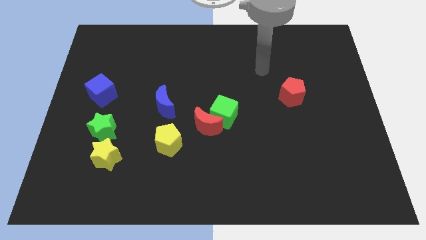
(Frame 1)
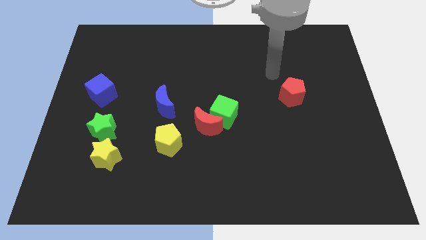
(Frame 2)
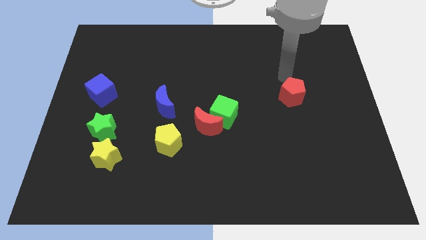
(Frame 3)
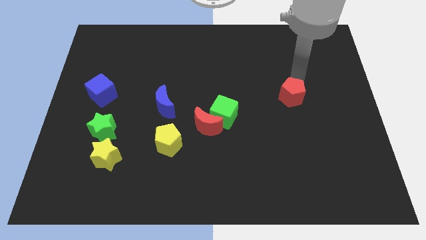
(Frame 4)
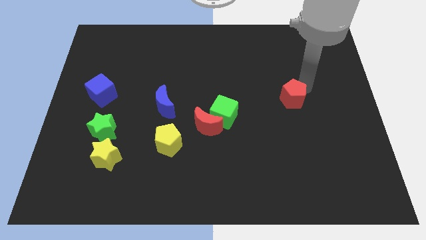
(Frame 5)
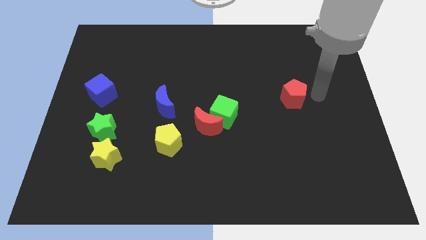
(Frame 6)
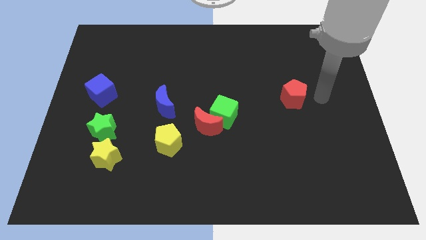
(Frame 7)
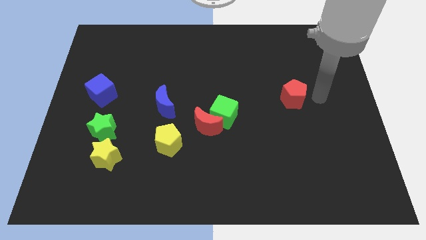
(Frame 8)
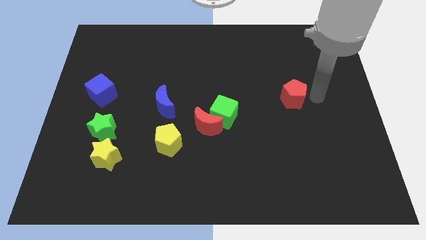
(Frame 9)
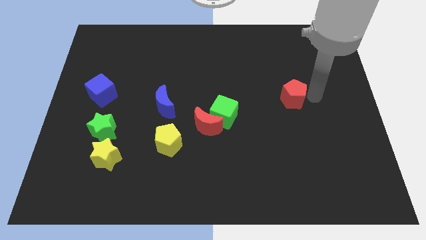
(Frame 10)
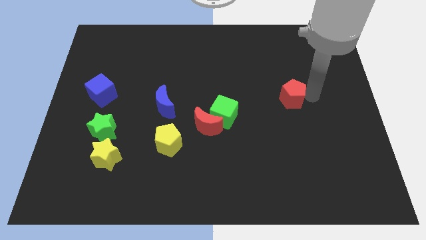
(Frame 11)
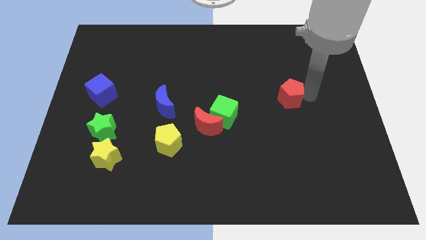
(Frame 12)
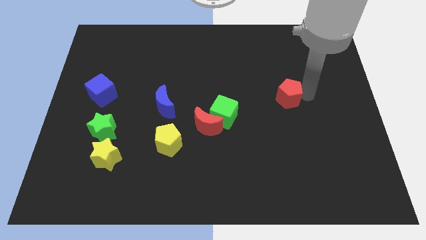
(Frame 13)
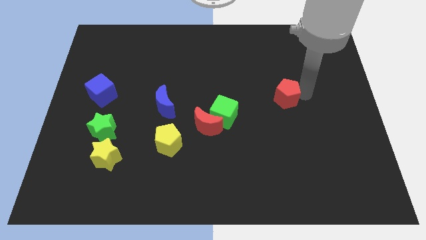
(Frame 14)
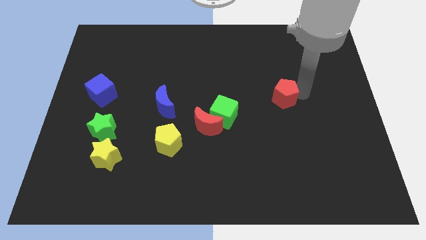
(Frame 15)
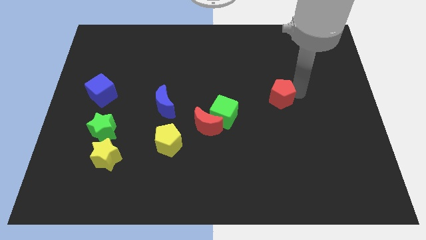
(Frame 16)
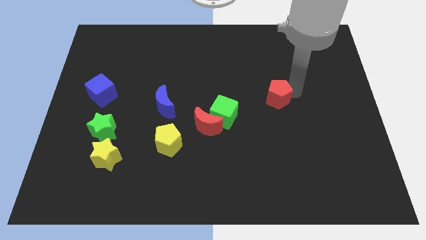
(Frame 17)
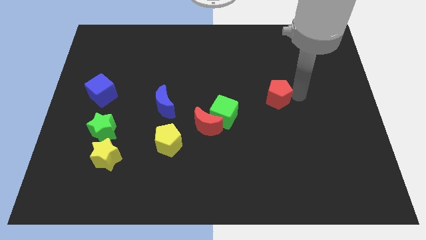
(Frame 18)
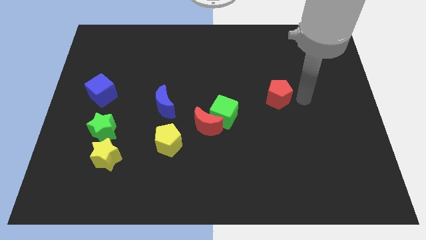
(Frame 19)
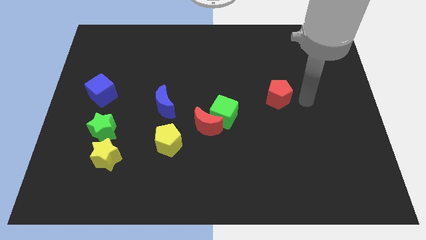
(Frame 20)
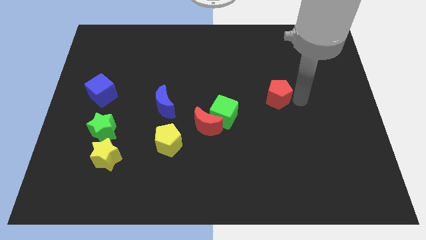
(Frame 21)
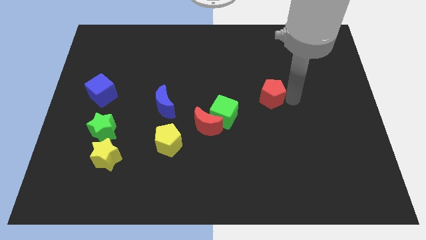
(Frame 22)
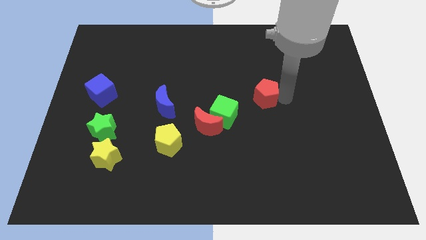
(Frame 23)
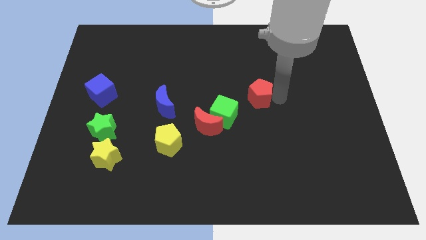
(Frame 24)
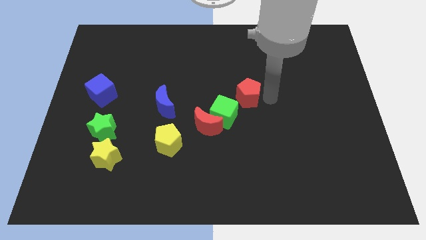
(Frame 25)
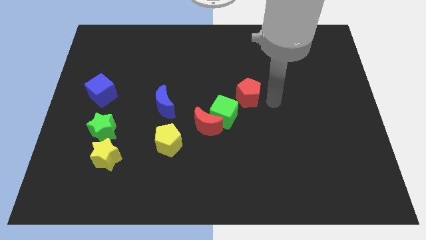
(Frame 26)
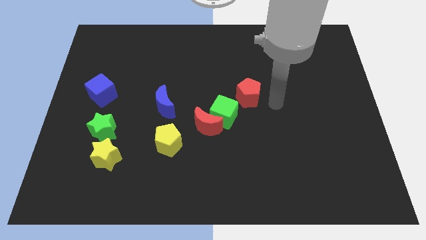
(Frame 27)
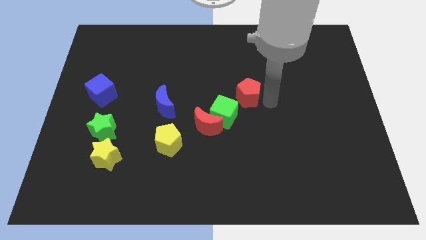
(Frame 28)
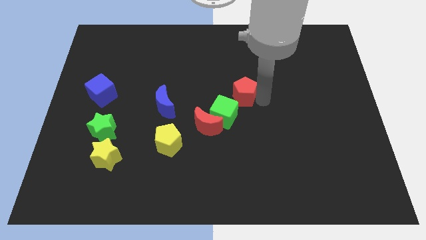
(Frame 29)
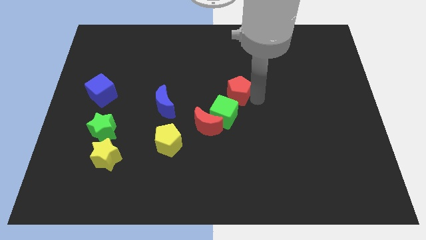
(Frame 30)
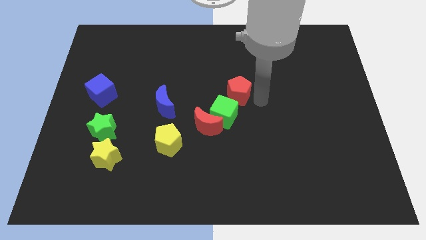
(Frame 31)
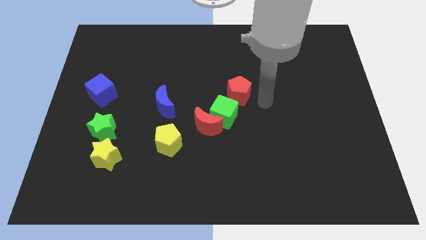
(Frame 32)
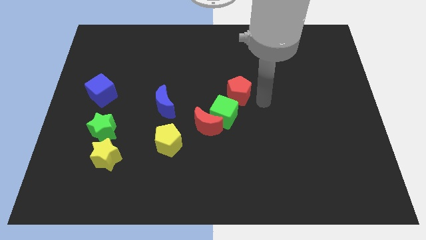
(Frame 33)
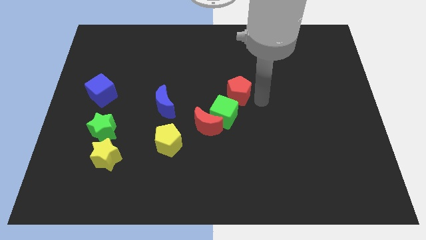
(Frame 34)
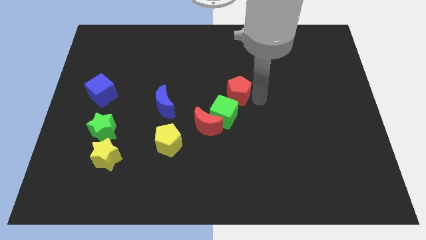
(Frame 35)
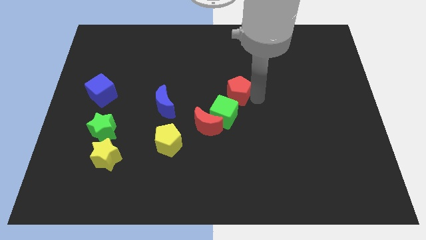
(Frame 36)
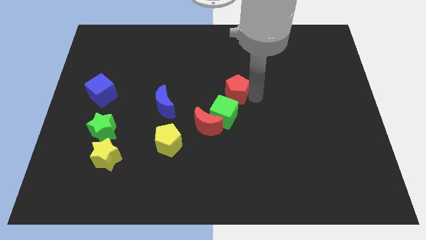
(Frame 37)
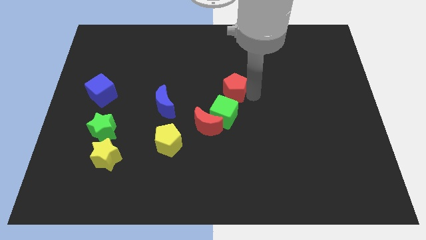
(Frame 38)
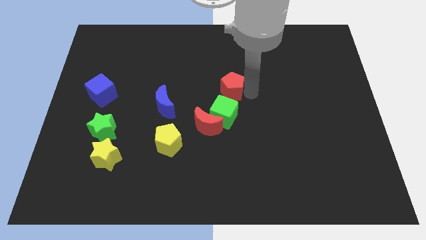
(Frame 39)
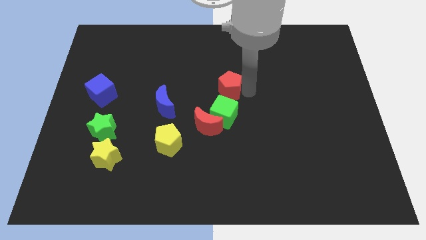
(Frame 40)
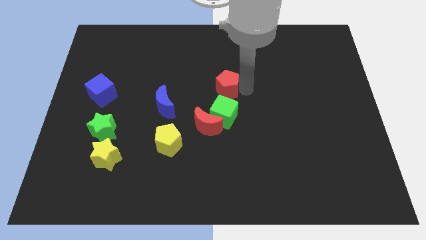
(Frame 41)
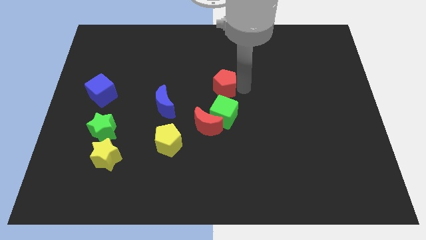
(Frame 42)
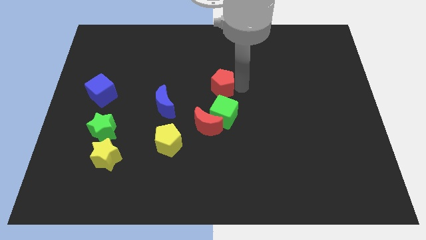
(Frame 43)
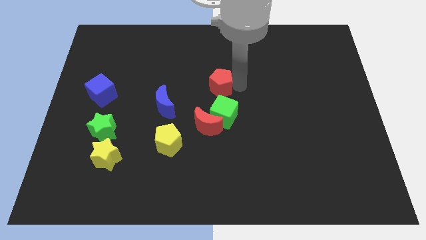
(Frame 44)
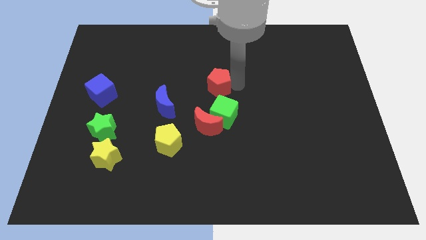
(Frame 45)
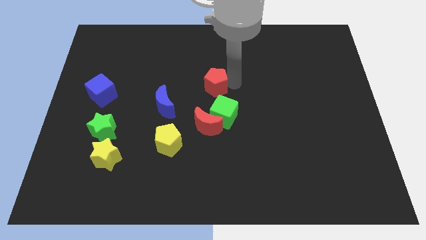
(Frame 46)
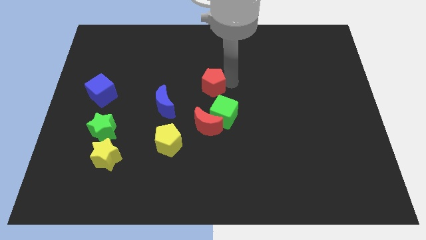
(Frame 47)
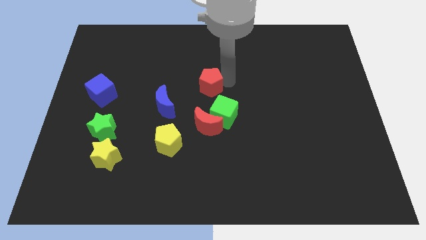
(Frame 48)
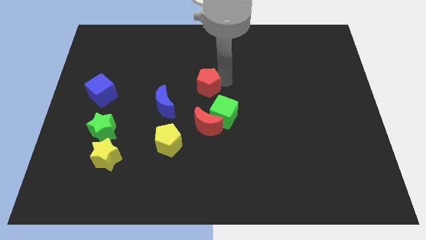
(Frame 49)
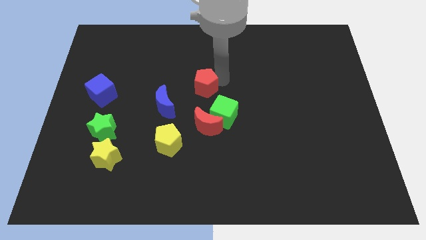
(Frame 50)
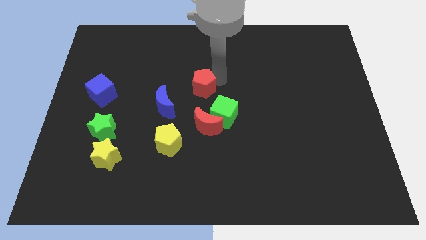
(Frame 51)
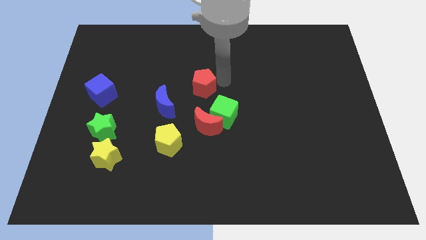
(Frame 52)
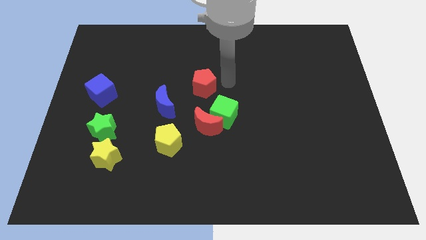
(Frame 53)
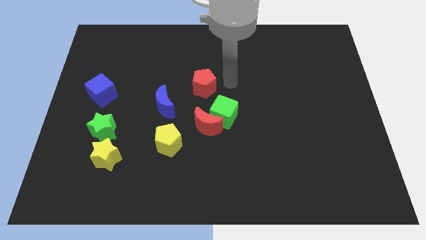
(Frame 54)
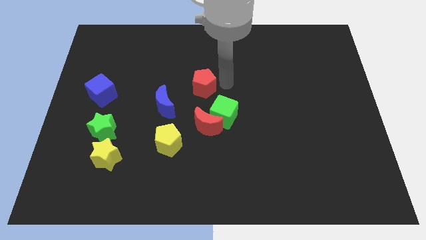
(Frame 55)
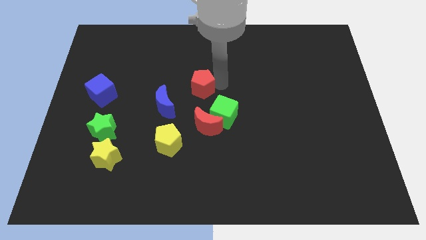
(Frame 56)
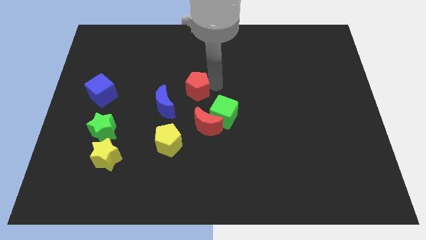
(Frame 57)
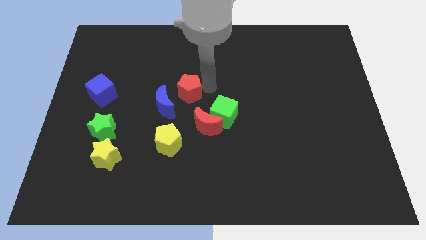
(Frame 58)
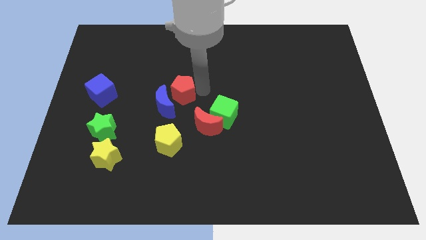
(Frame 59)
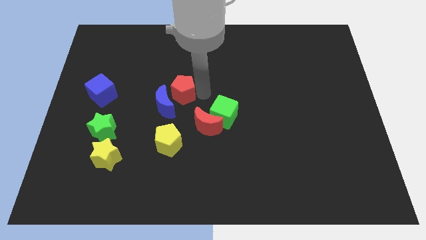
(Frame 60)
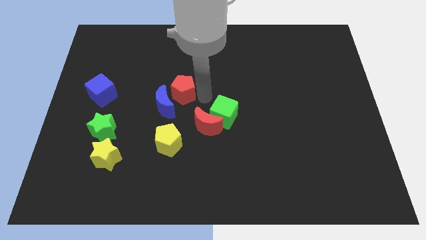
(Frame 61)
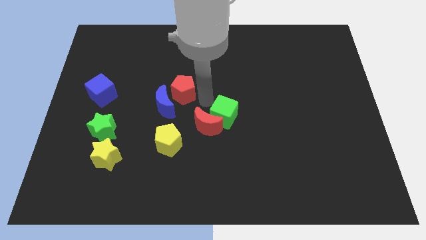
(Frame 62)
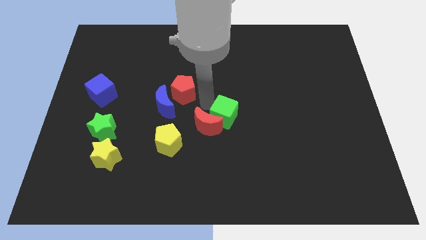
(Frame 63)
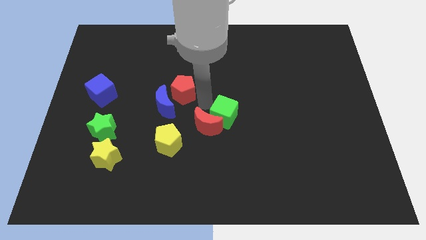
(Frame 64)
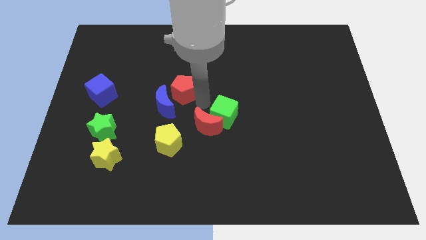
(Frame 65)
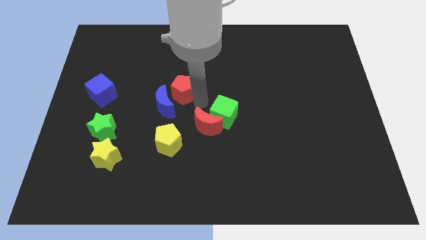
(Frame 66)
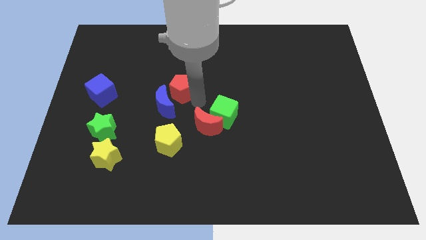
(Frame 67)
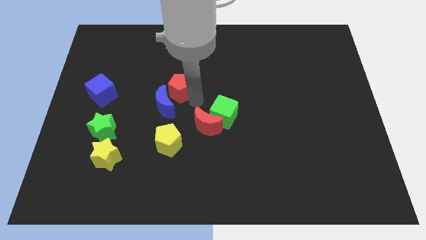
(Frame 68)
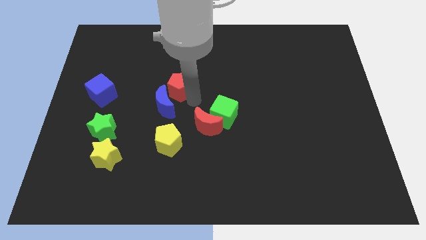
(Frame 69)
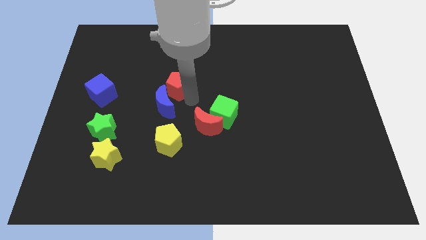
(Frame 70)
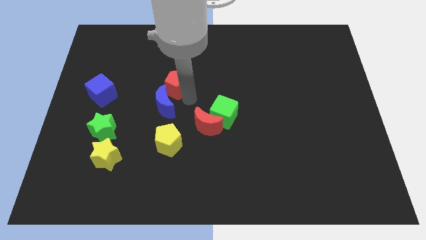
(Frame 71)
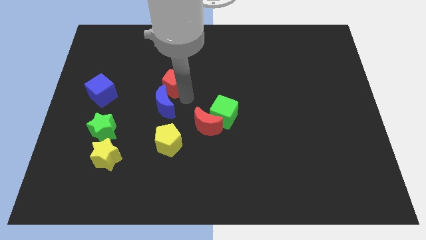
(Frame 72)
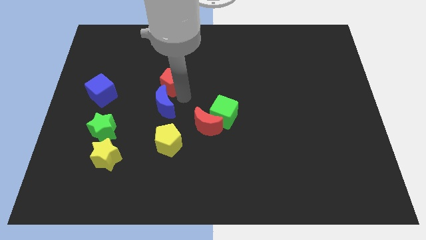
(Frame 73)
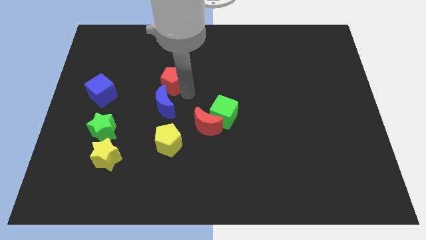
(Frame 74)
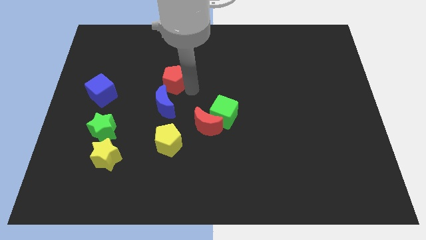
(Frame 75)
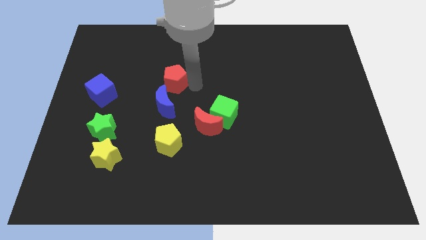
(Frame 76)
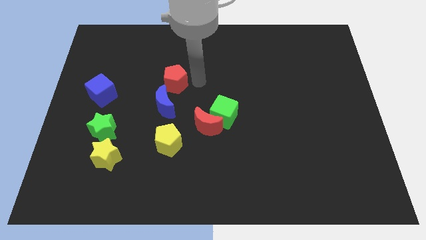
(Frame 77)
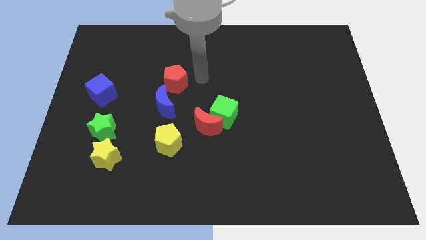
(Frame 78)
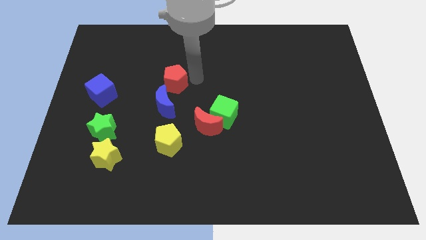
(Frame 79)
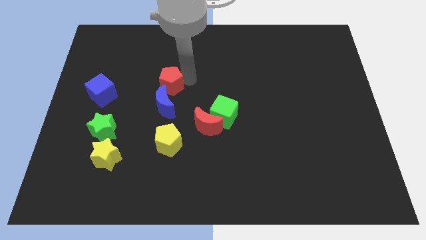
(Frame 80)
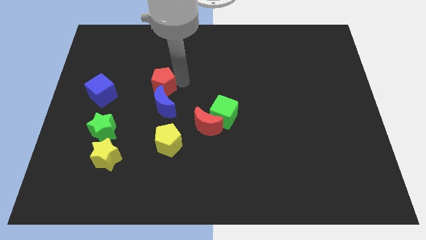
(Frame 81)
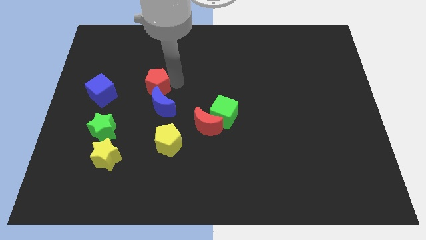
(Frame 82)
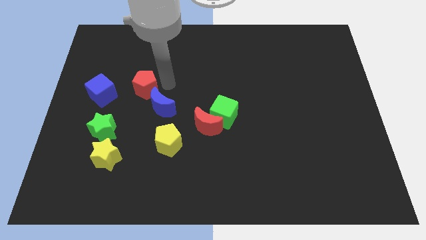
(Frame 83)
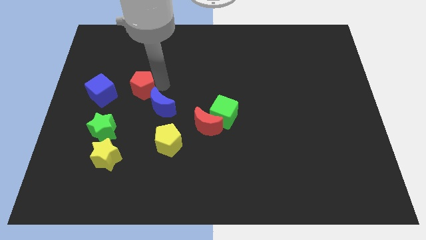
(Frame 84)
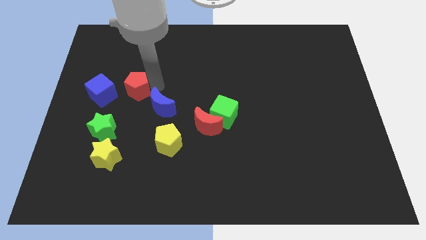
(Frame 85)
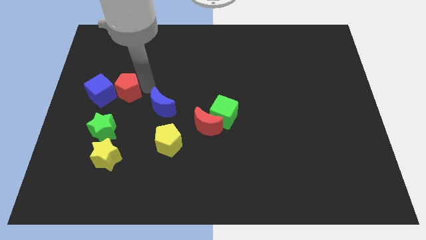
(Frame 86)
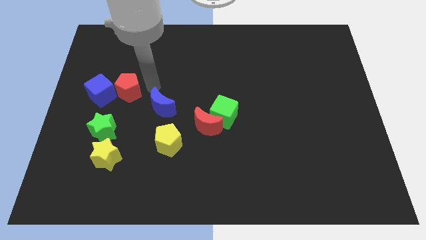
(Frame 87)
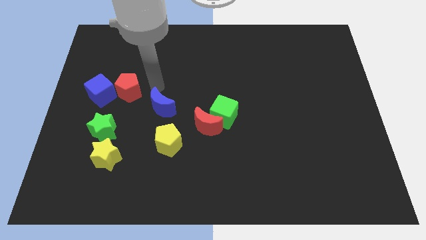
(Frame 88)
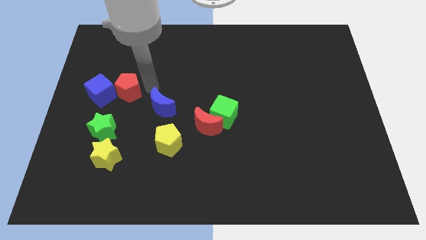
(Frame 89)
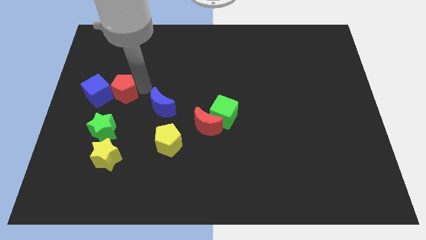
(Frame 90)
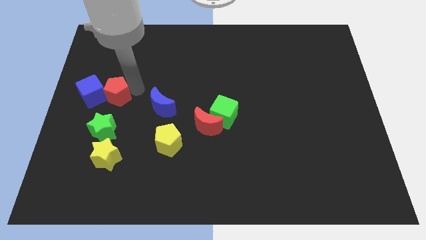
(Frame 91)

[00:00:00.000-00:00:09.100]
move the red pentagon to the blue cube
